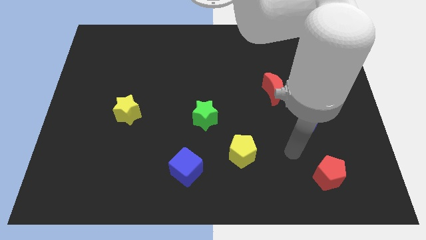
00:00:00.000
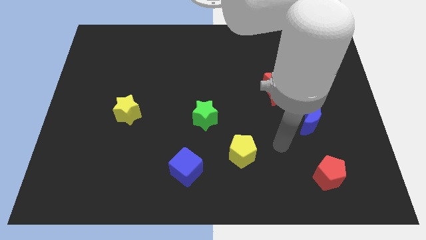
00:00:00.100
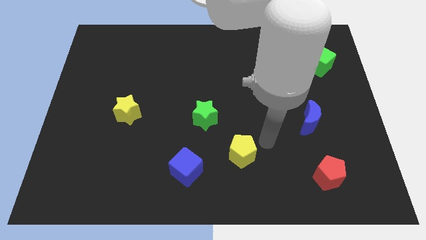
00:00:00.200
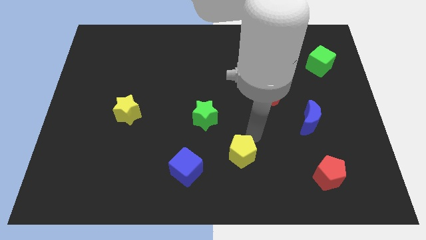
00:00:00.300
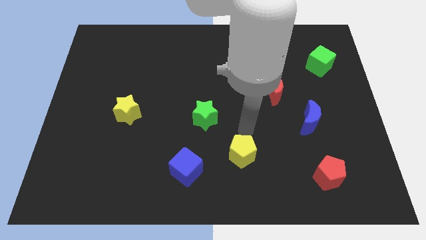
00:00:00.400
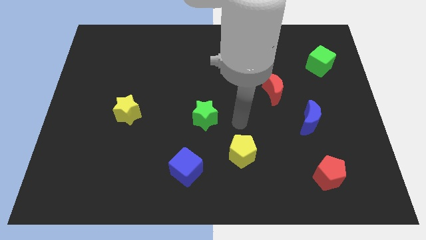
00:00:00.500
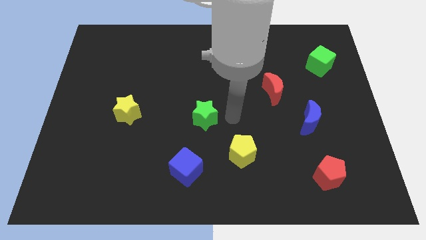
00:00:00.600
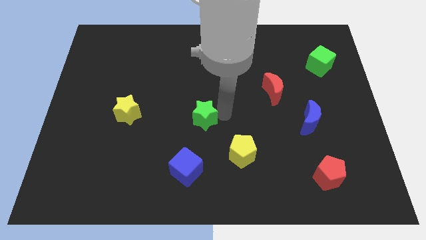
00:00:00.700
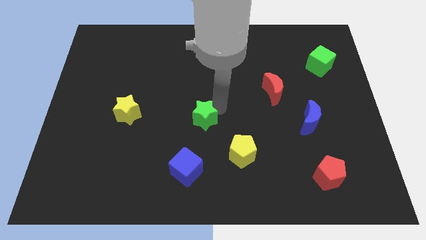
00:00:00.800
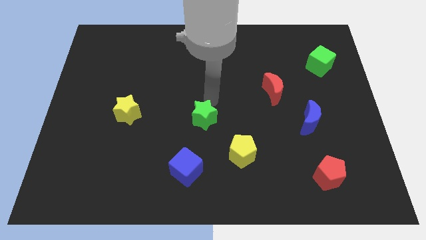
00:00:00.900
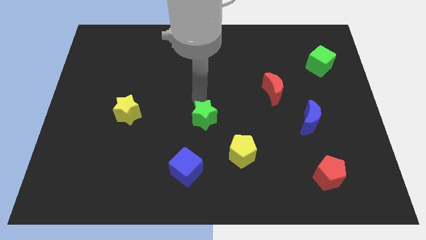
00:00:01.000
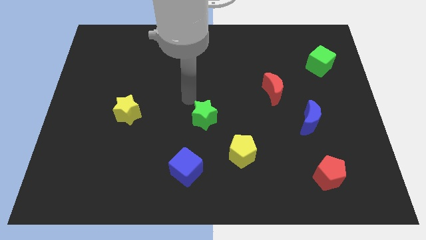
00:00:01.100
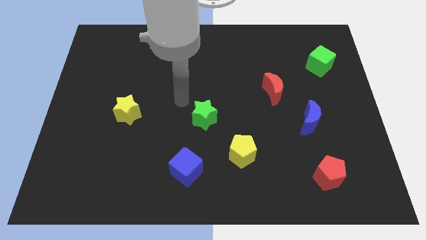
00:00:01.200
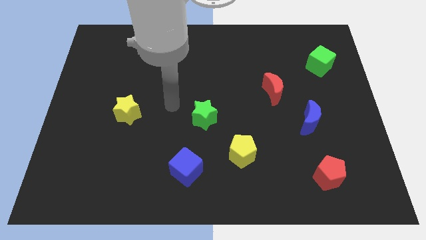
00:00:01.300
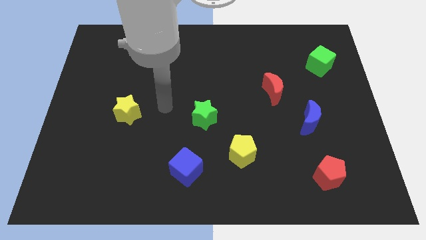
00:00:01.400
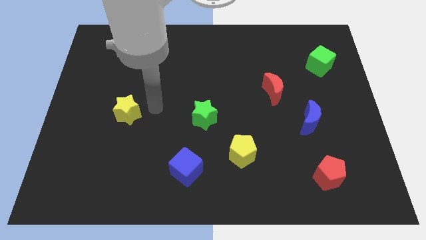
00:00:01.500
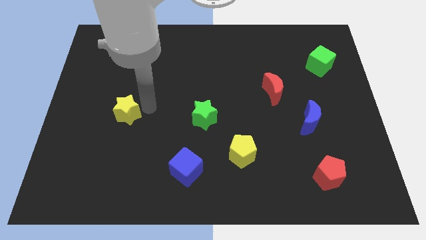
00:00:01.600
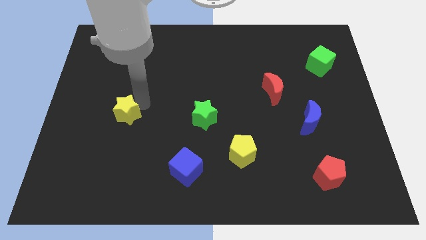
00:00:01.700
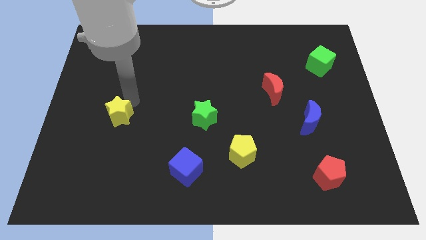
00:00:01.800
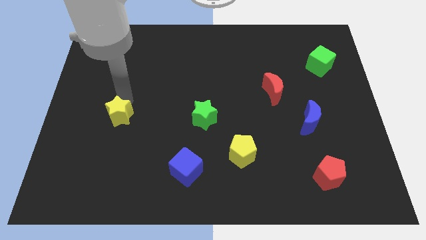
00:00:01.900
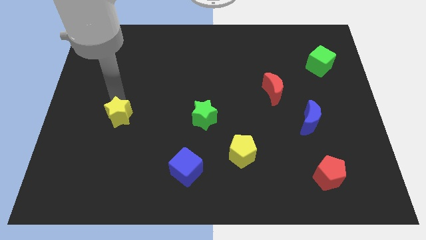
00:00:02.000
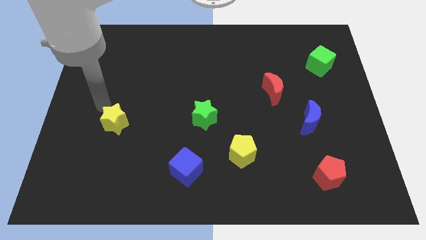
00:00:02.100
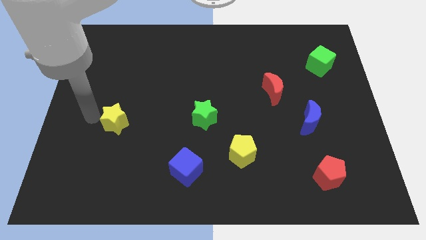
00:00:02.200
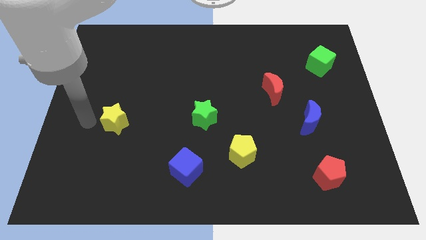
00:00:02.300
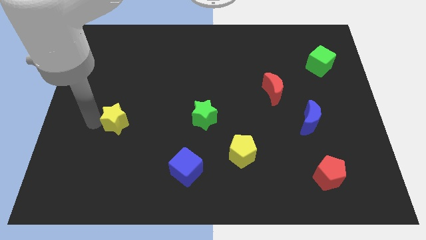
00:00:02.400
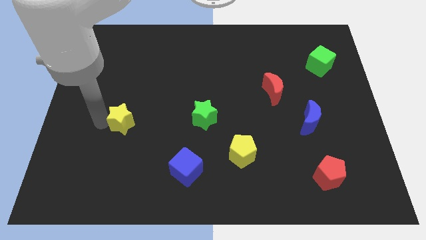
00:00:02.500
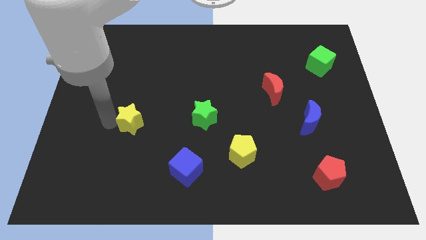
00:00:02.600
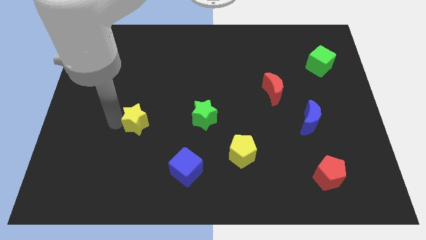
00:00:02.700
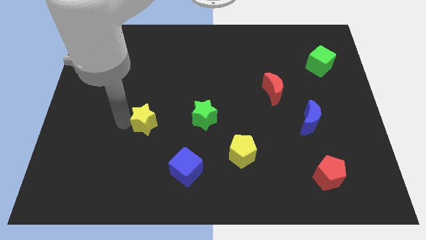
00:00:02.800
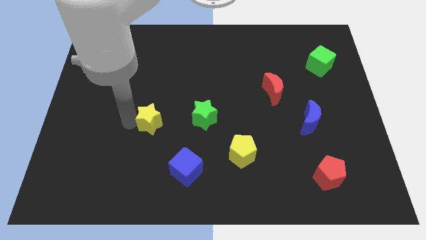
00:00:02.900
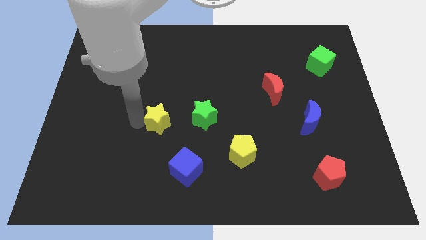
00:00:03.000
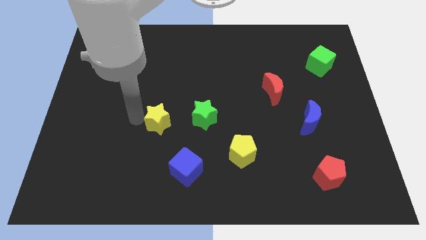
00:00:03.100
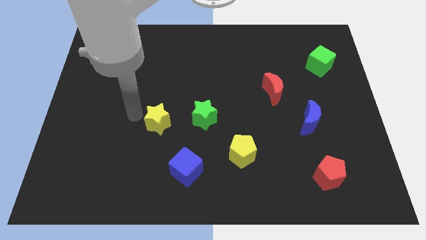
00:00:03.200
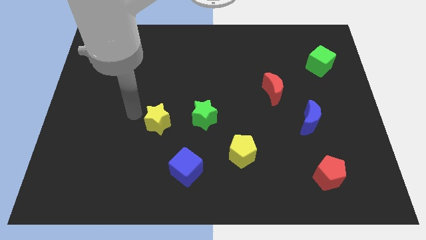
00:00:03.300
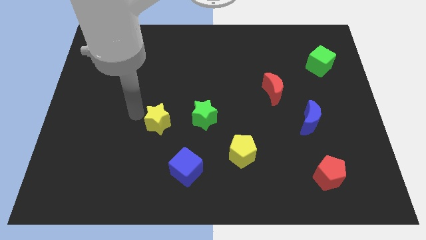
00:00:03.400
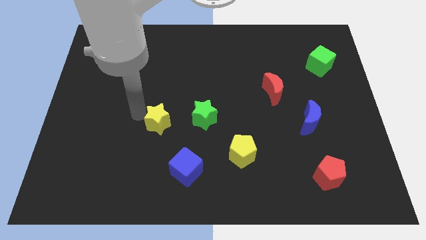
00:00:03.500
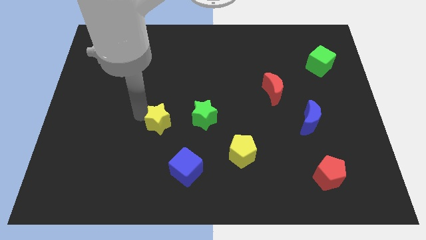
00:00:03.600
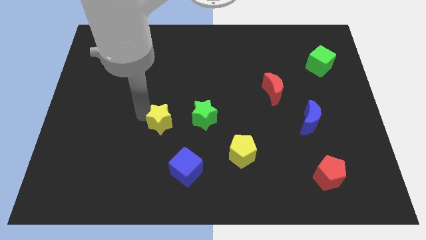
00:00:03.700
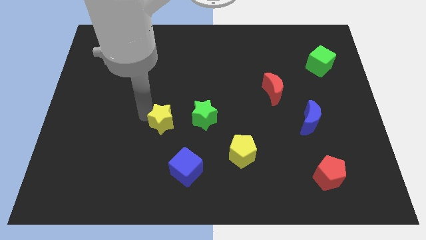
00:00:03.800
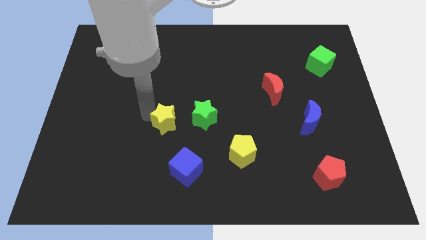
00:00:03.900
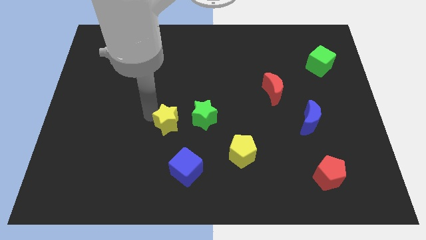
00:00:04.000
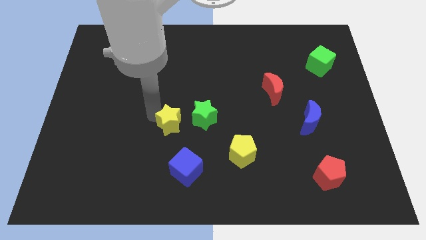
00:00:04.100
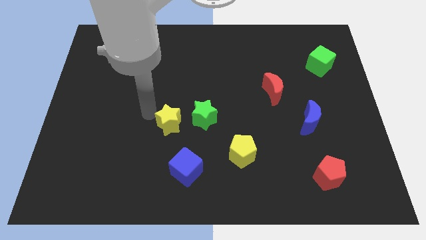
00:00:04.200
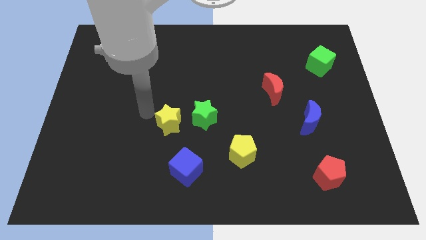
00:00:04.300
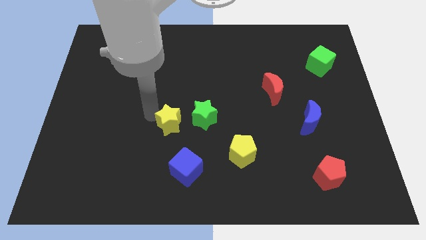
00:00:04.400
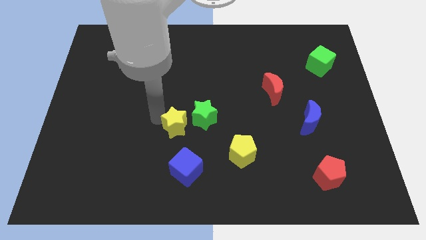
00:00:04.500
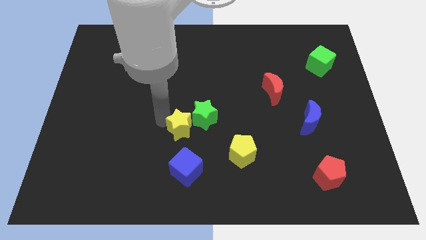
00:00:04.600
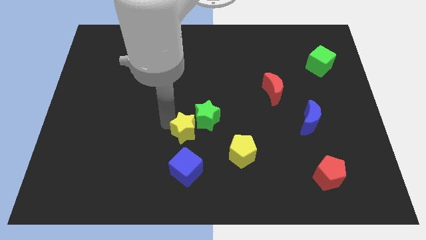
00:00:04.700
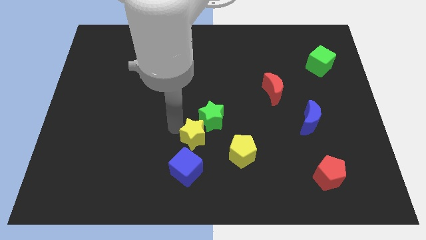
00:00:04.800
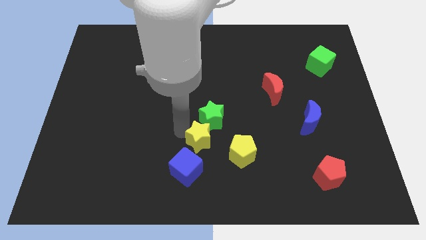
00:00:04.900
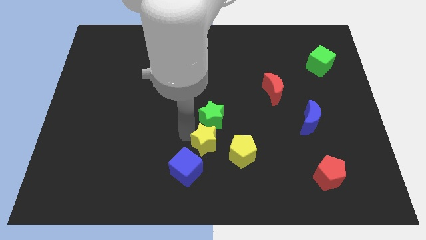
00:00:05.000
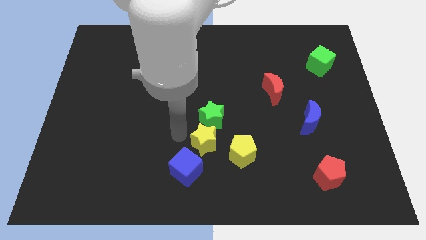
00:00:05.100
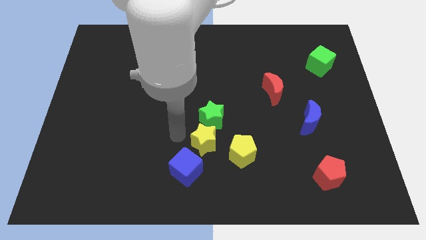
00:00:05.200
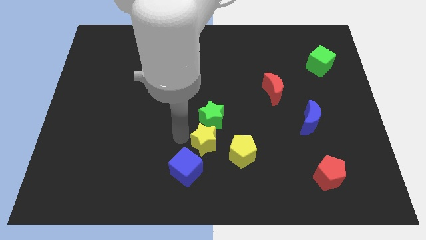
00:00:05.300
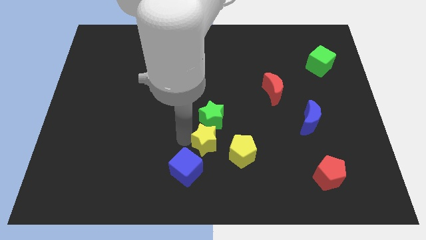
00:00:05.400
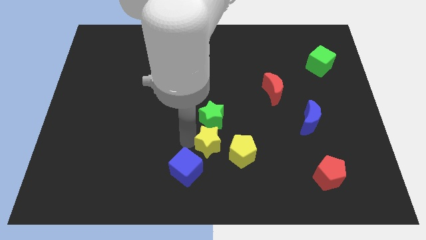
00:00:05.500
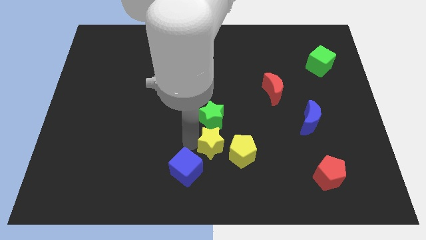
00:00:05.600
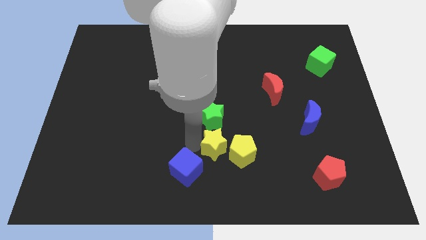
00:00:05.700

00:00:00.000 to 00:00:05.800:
slide the yellow star next to the yellow pentagon

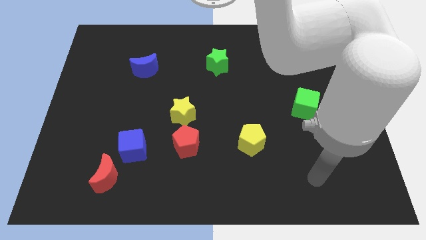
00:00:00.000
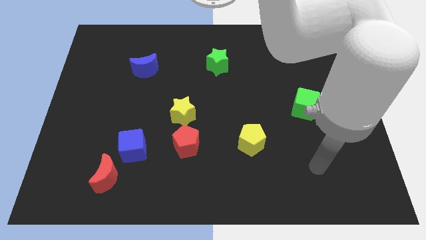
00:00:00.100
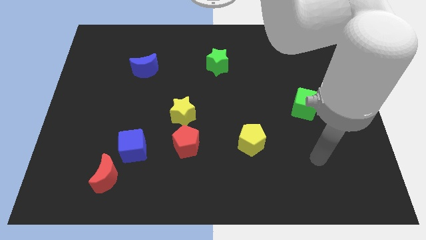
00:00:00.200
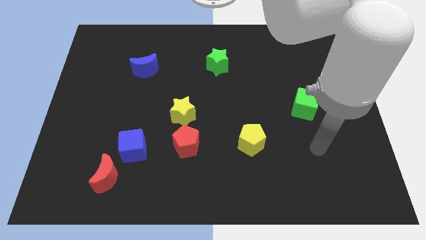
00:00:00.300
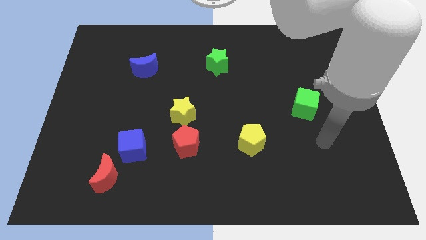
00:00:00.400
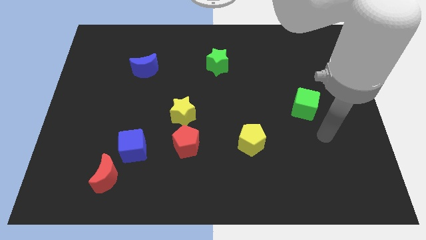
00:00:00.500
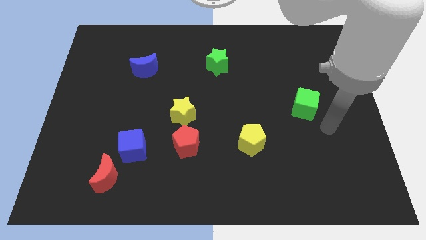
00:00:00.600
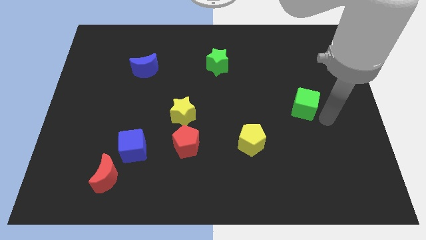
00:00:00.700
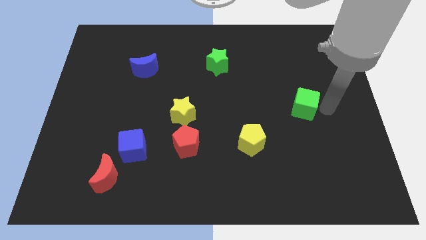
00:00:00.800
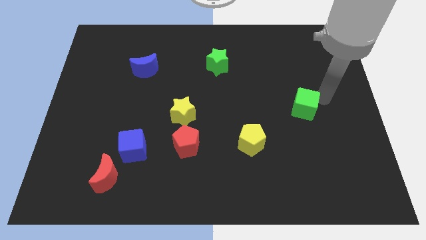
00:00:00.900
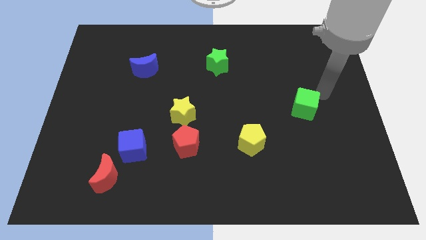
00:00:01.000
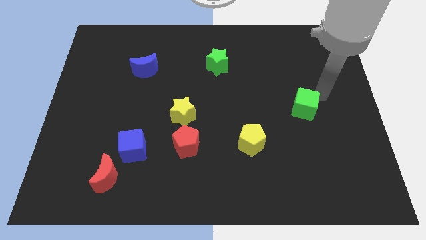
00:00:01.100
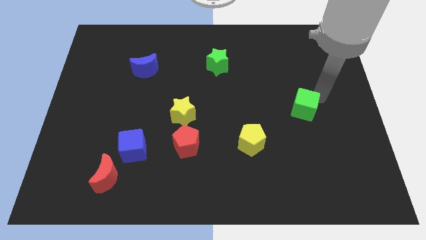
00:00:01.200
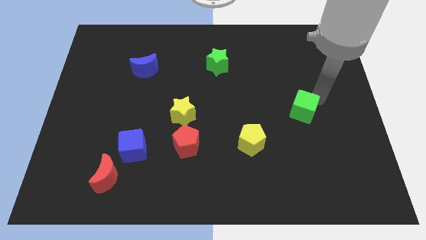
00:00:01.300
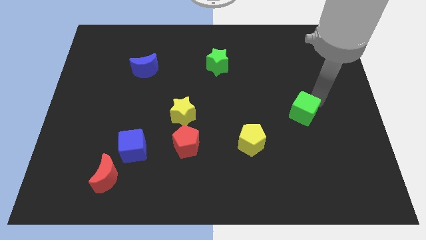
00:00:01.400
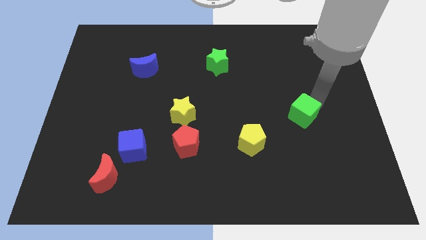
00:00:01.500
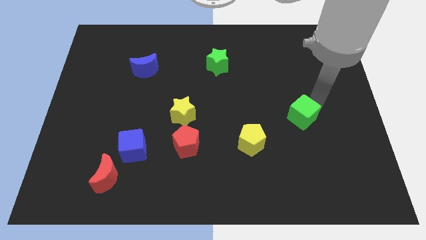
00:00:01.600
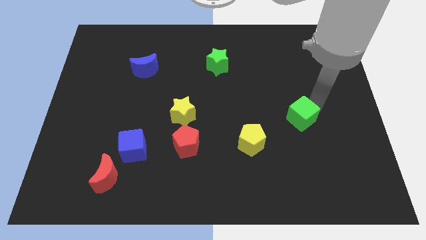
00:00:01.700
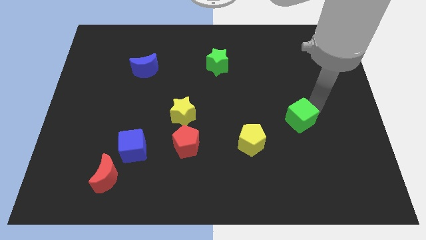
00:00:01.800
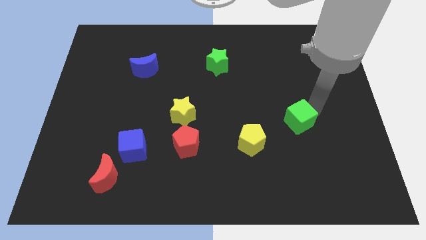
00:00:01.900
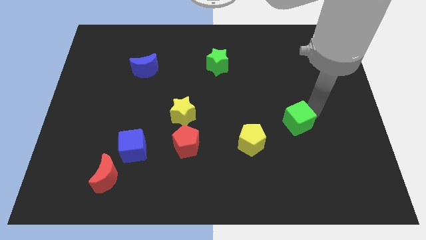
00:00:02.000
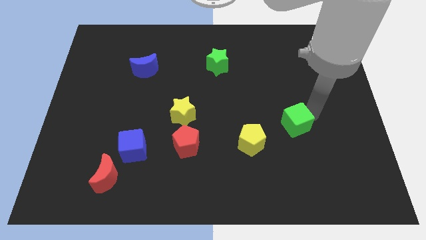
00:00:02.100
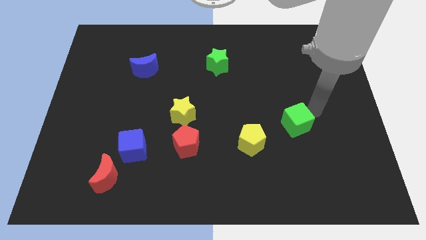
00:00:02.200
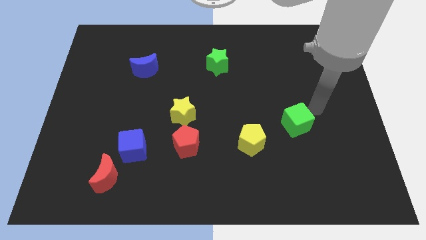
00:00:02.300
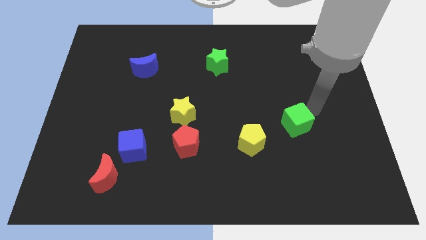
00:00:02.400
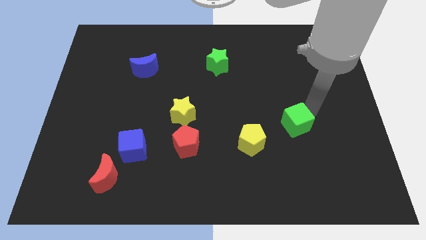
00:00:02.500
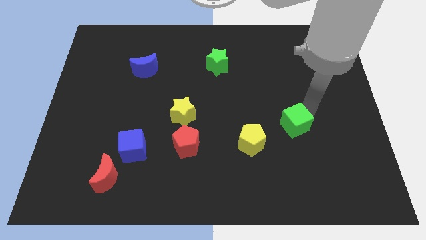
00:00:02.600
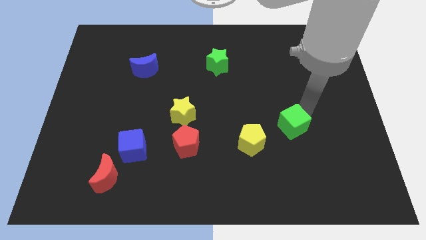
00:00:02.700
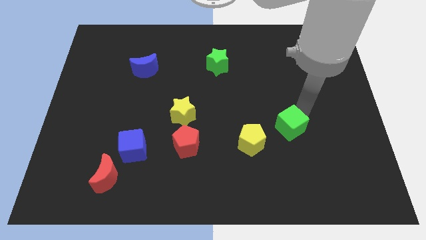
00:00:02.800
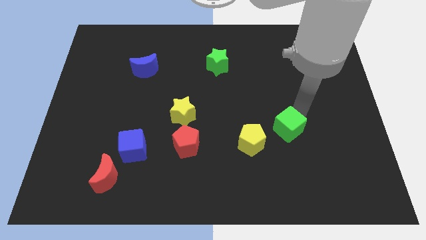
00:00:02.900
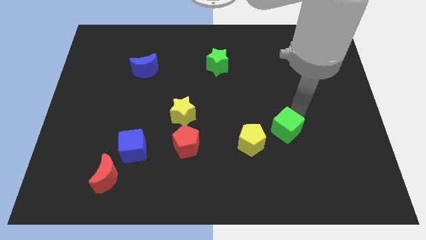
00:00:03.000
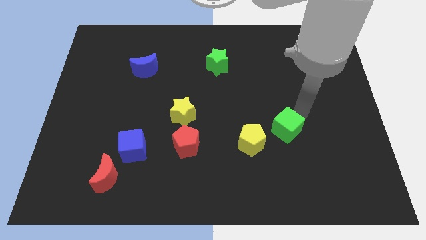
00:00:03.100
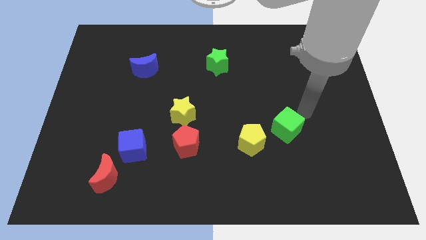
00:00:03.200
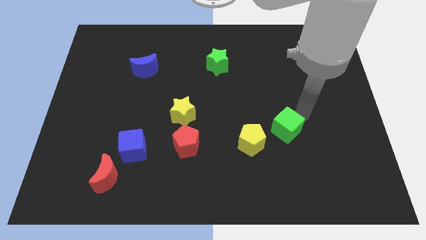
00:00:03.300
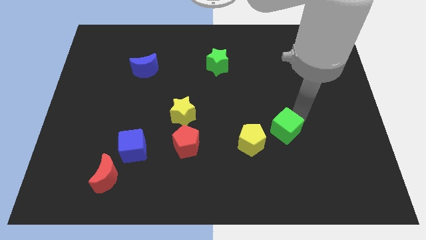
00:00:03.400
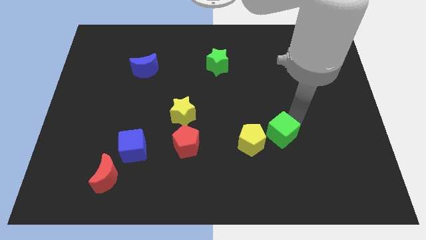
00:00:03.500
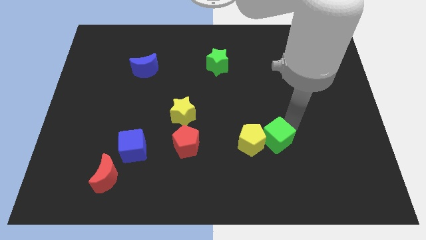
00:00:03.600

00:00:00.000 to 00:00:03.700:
move the green cube next to the yellow pentagon
